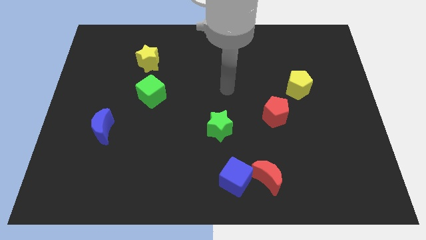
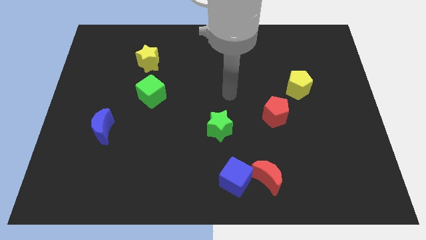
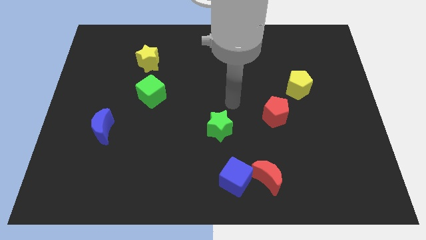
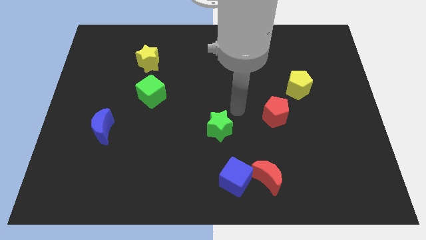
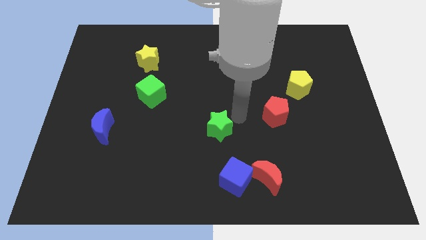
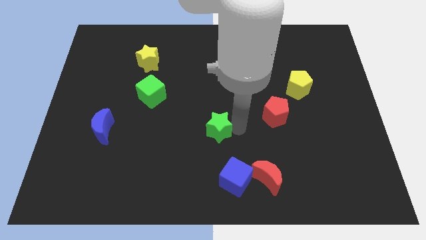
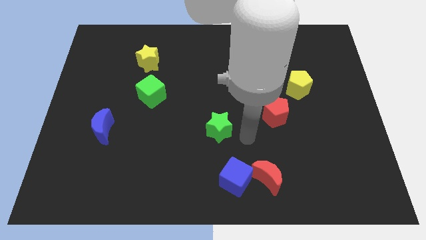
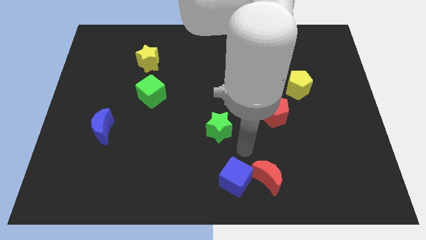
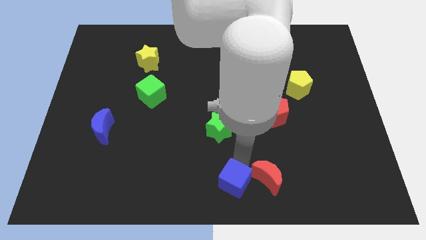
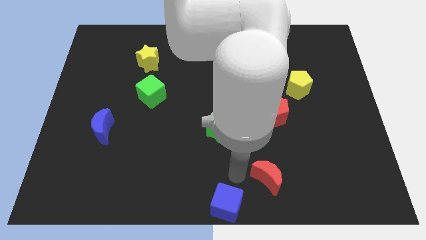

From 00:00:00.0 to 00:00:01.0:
separate the red moon from the blue cube

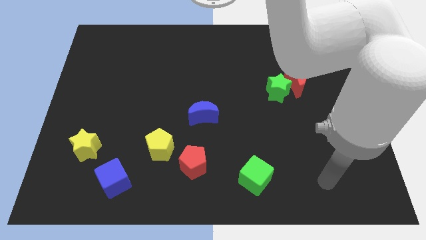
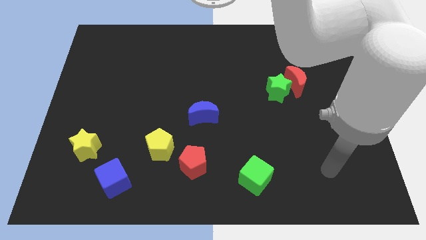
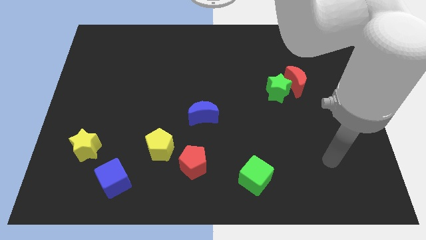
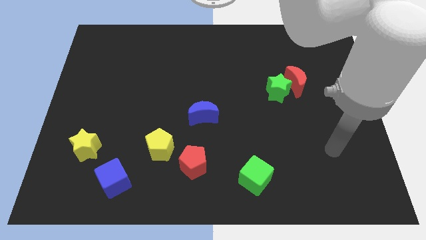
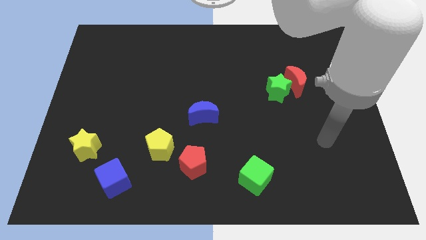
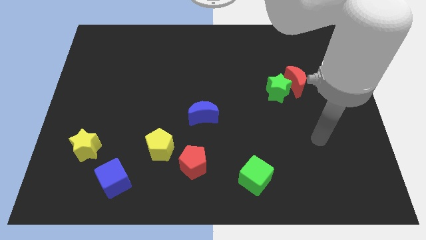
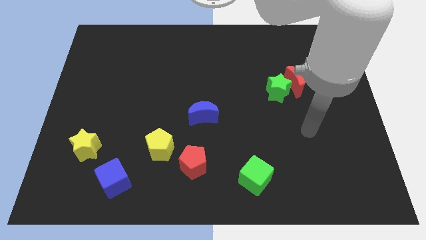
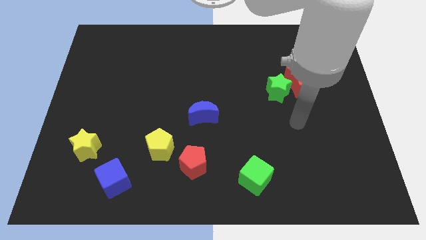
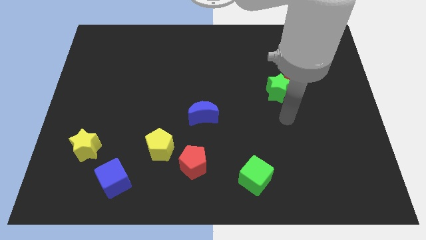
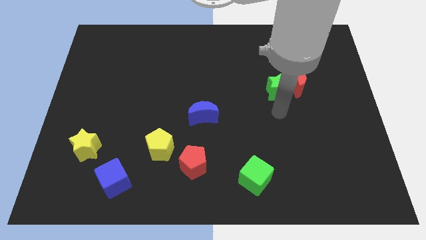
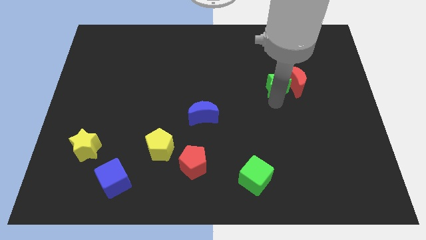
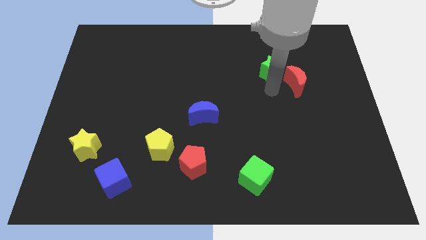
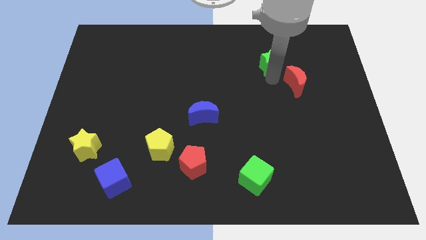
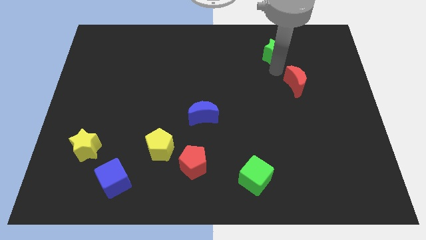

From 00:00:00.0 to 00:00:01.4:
pull the red moon apart from the green star

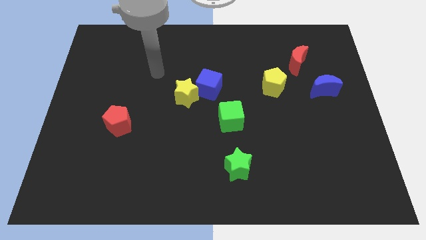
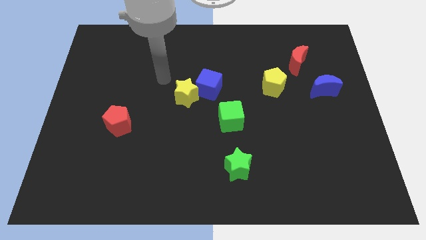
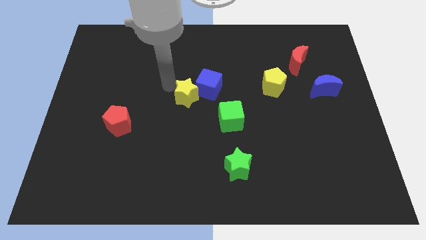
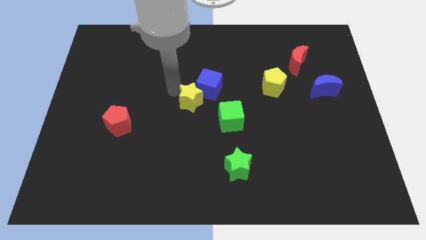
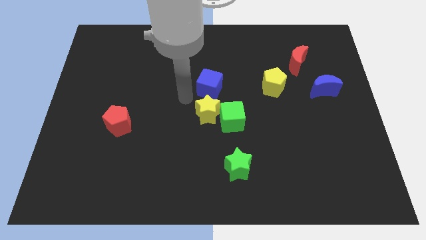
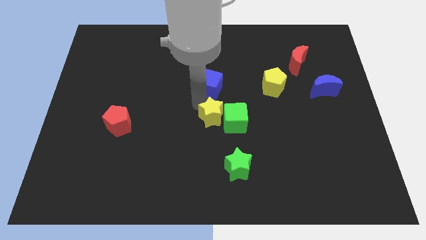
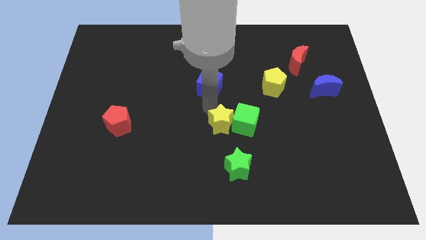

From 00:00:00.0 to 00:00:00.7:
pull the blue cube apart from the yellow star

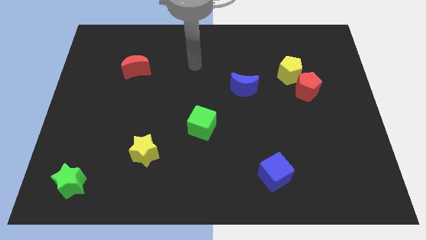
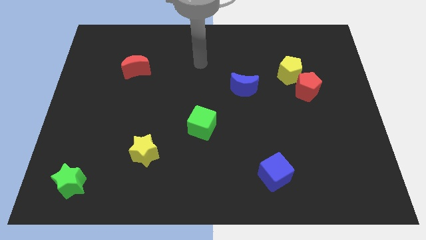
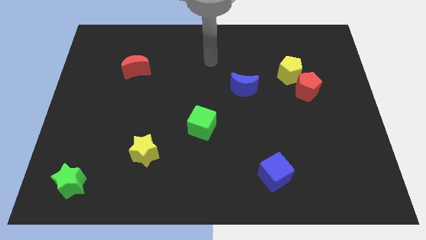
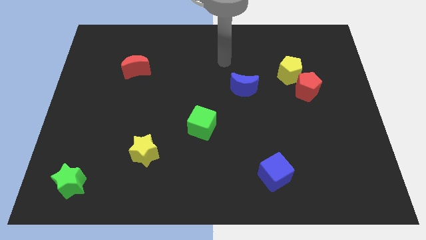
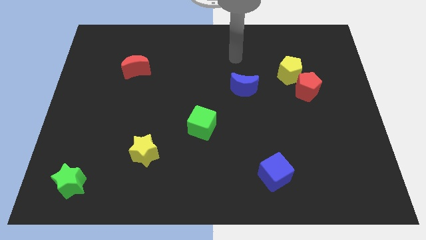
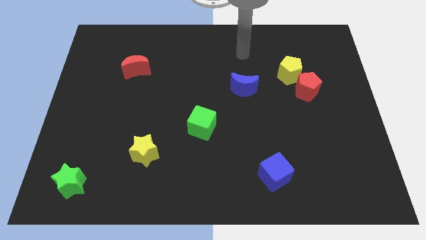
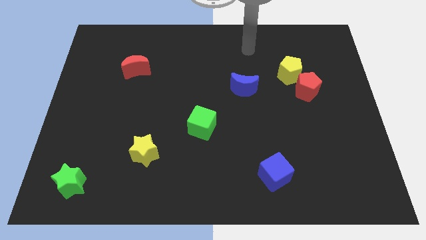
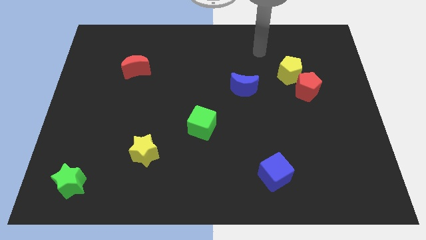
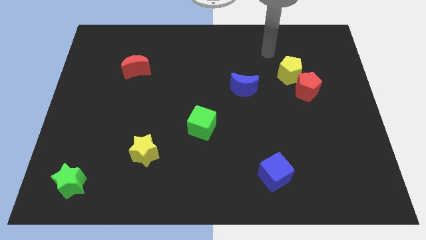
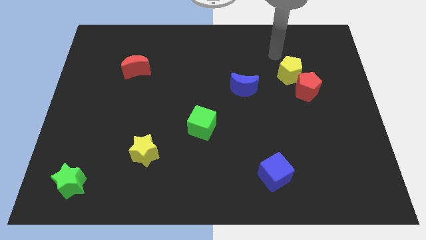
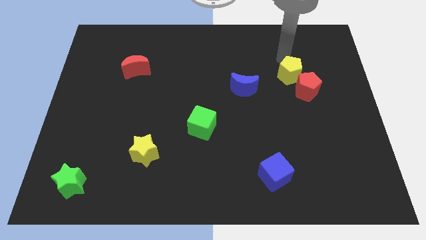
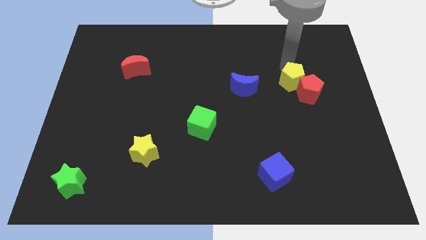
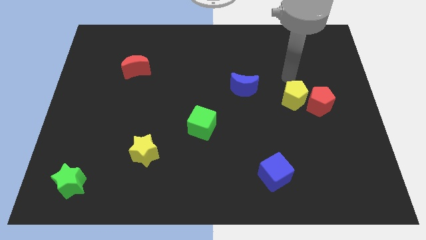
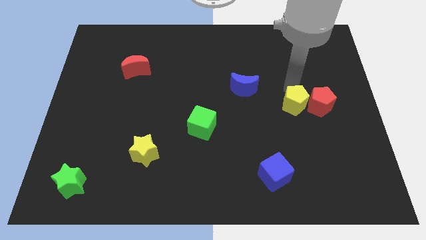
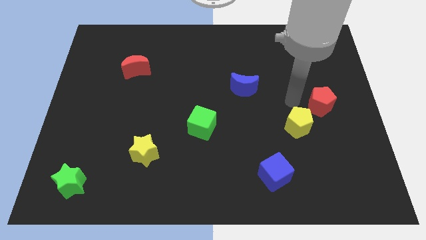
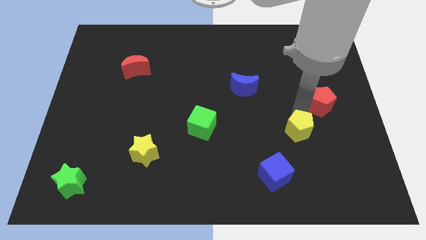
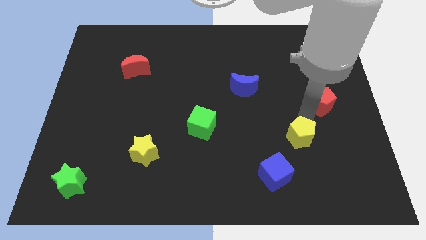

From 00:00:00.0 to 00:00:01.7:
separate the red pentagon from the yellow pentagon

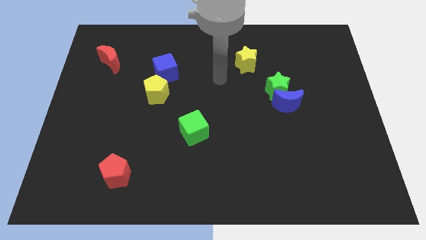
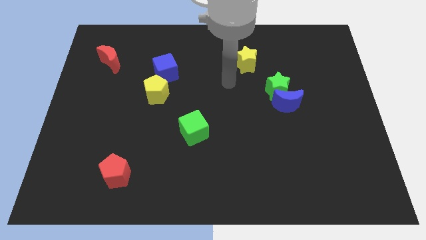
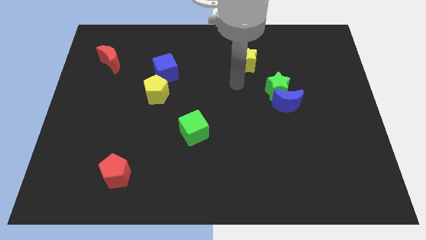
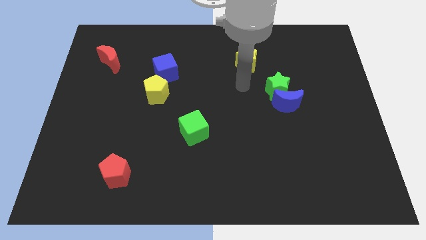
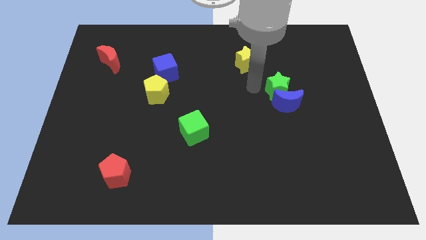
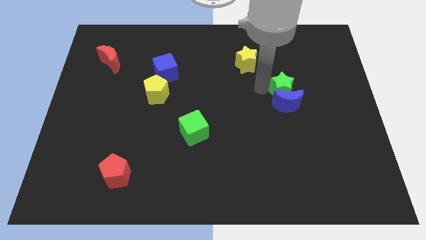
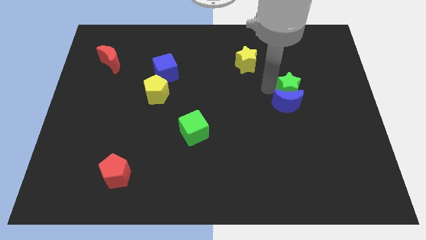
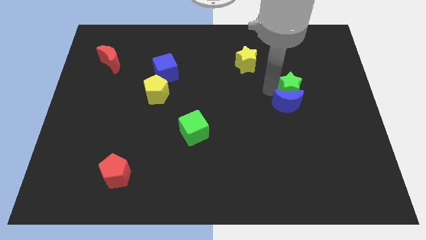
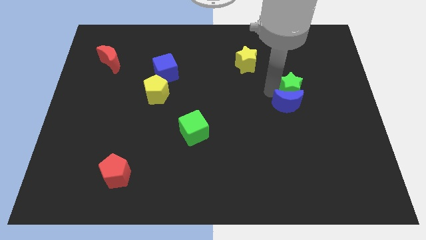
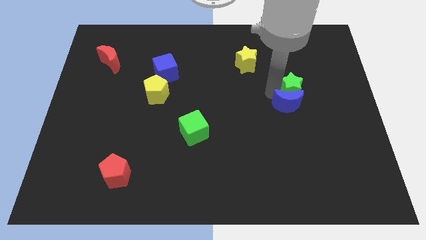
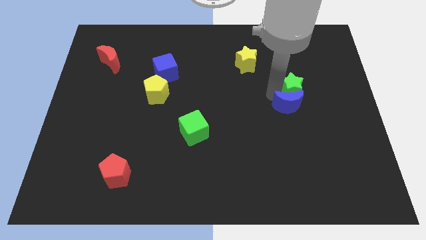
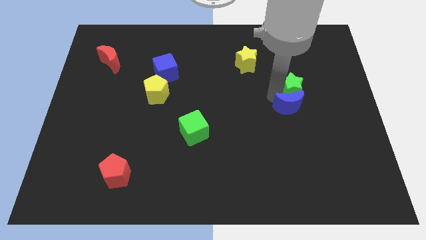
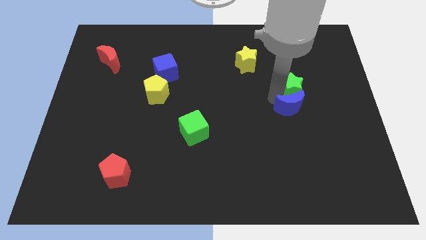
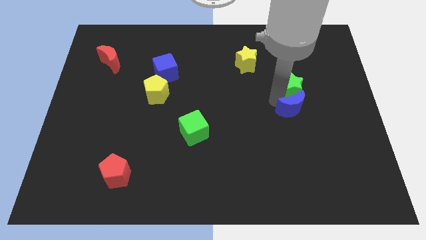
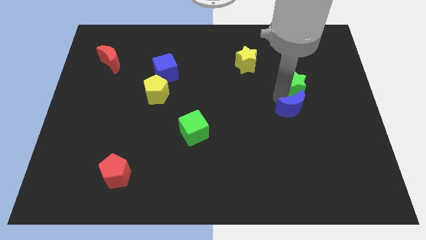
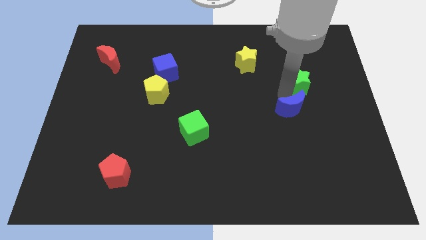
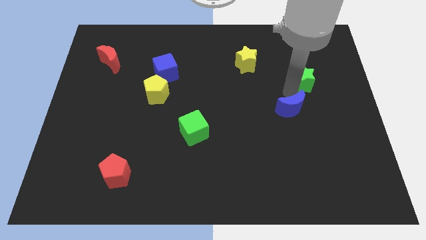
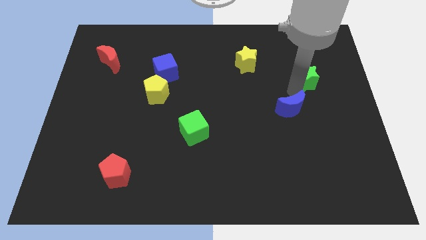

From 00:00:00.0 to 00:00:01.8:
move the blue moon away from the green star

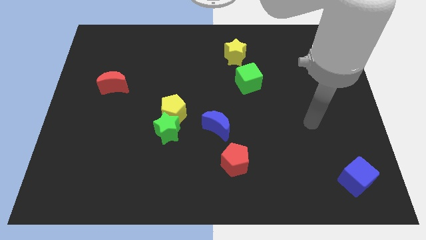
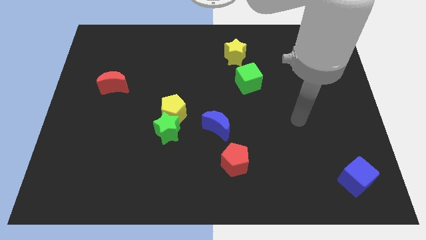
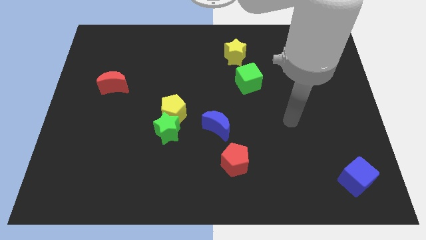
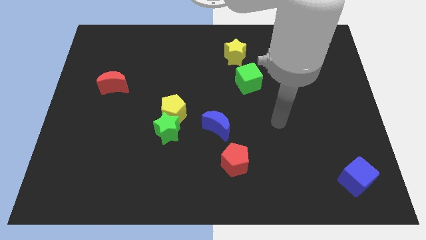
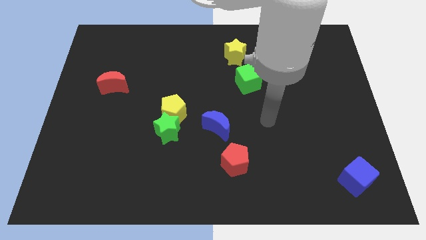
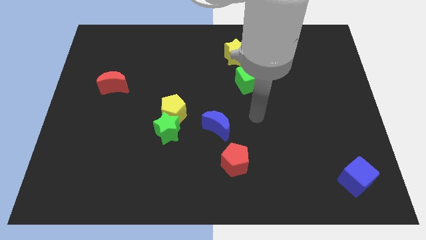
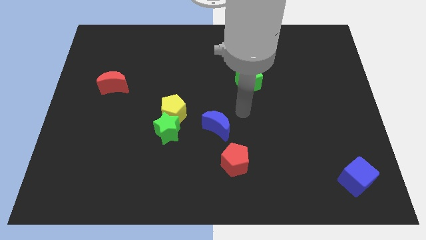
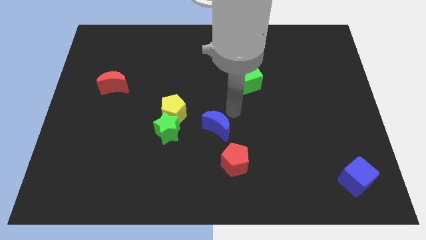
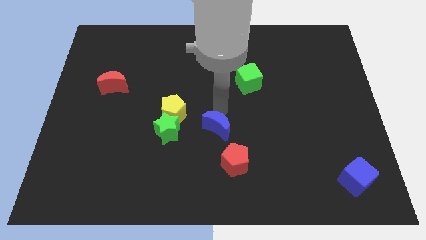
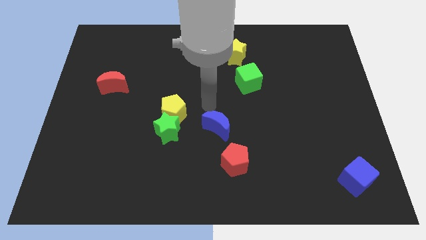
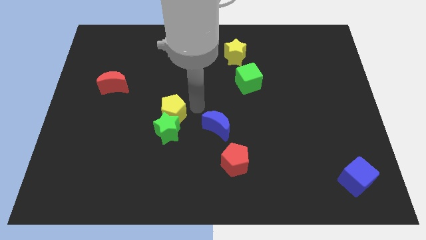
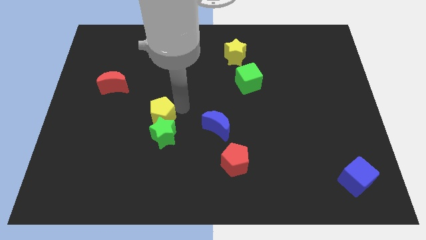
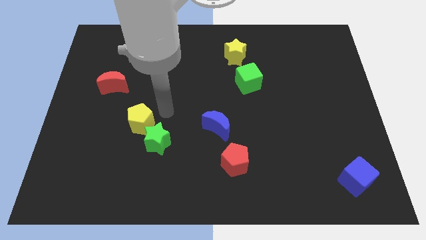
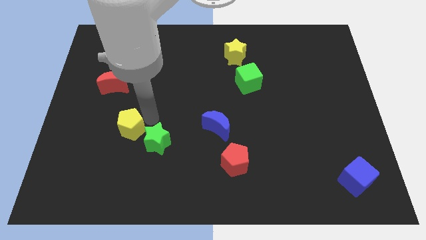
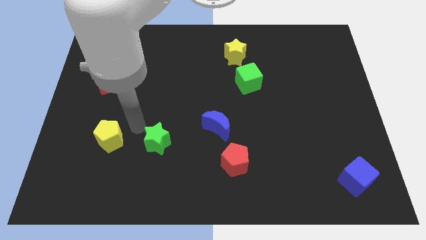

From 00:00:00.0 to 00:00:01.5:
move the green star away from the yellow pentagon

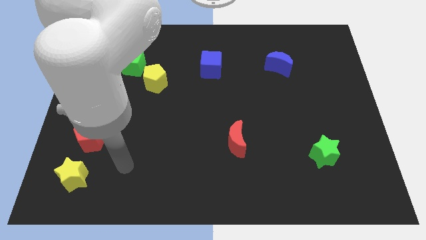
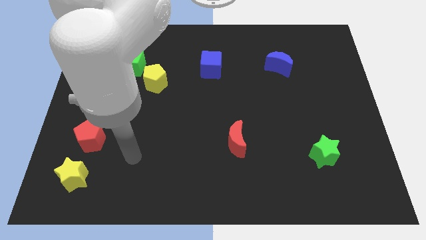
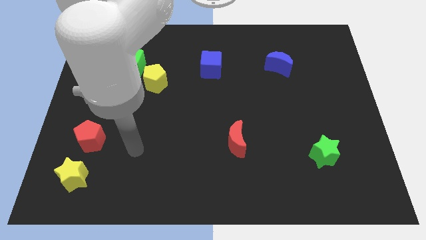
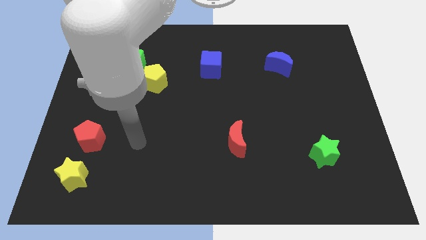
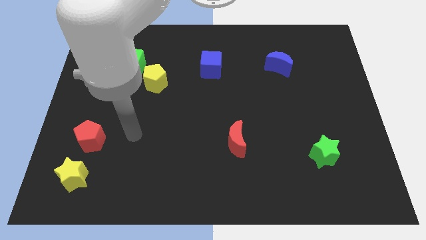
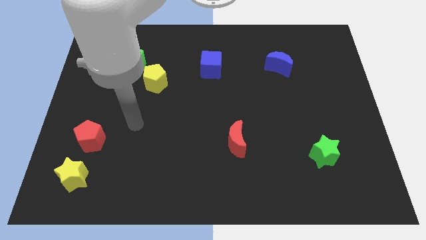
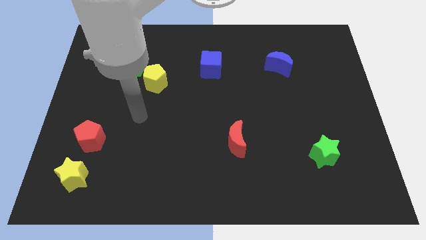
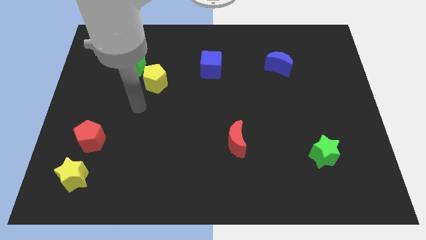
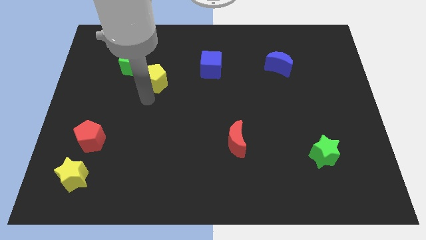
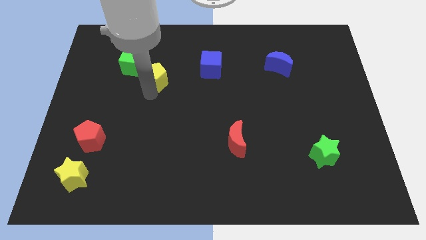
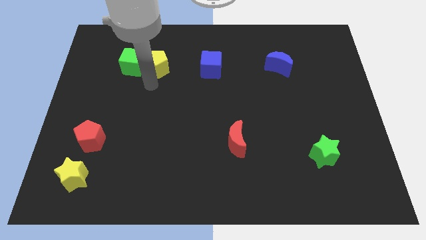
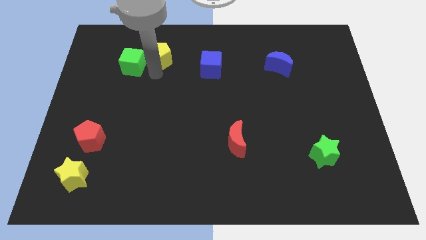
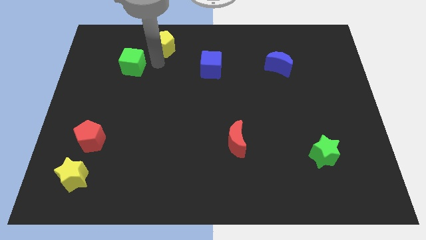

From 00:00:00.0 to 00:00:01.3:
separate the green cube from the yellow pentagon
